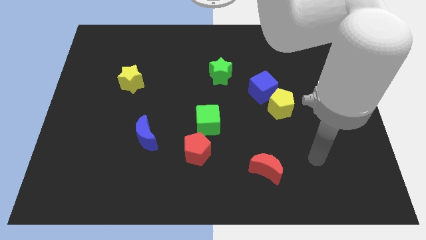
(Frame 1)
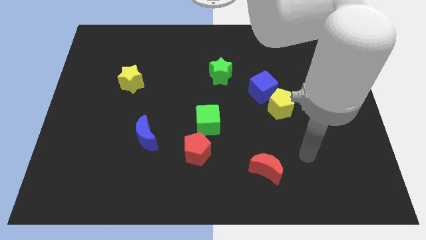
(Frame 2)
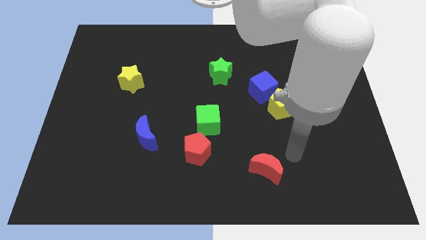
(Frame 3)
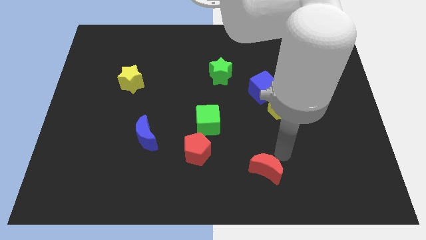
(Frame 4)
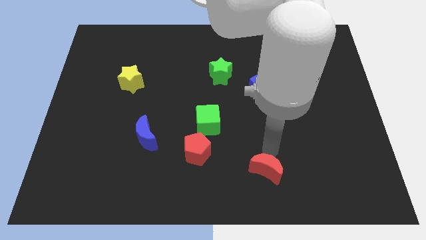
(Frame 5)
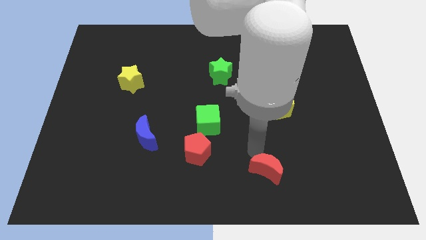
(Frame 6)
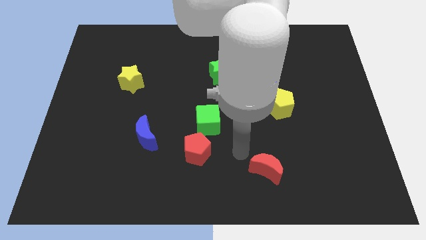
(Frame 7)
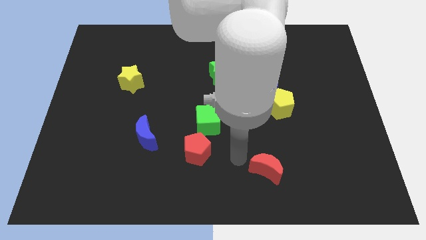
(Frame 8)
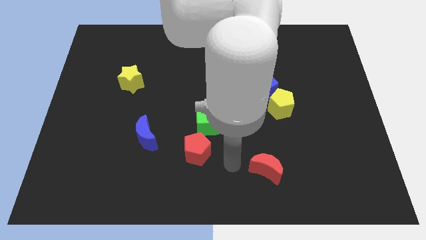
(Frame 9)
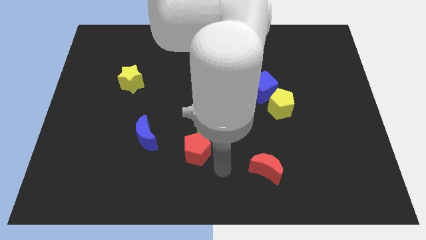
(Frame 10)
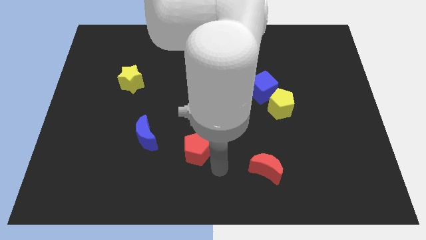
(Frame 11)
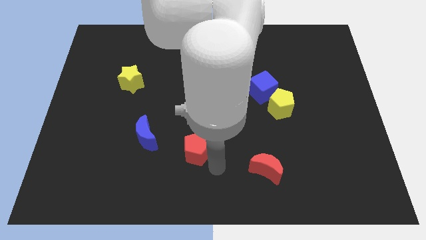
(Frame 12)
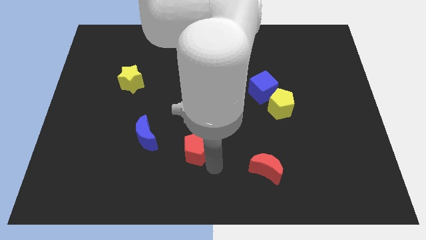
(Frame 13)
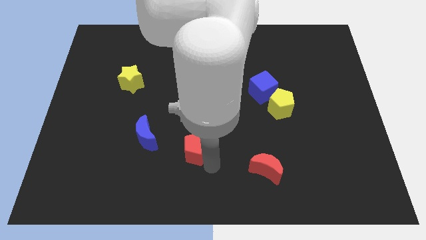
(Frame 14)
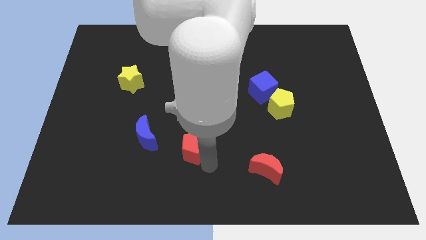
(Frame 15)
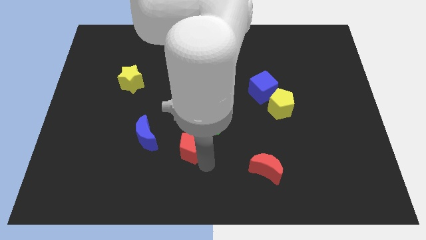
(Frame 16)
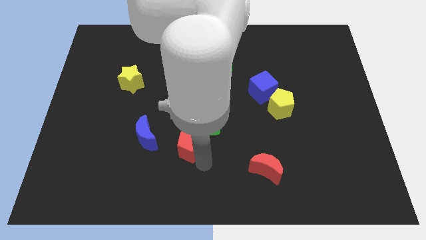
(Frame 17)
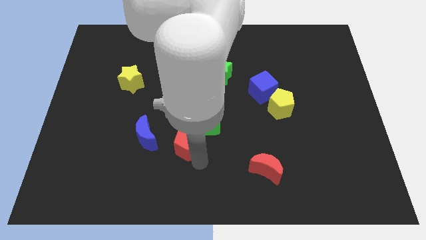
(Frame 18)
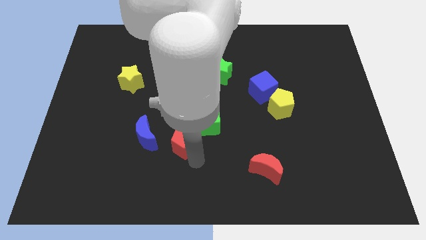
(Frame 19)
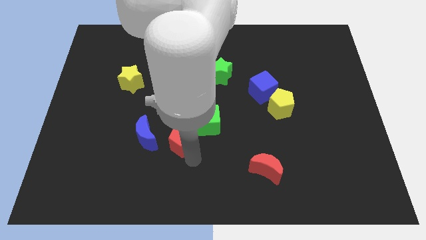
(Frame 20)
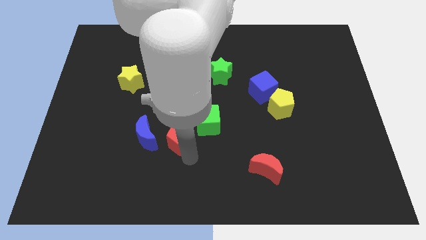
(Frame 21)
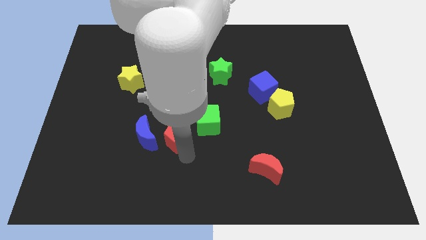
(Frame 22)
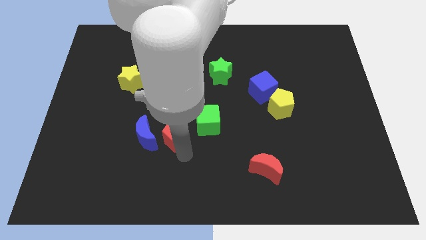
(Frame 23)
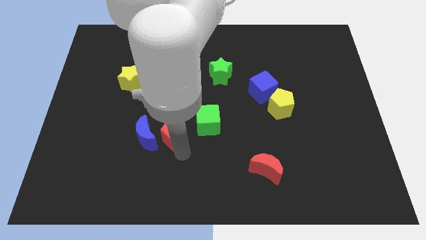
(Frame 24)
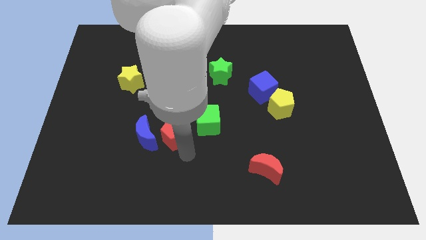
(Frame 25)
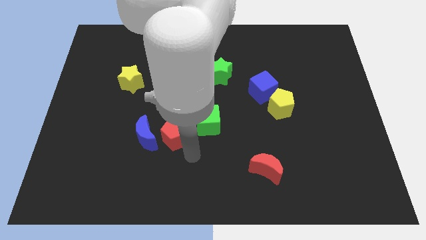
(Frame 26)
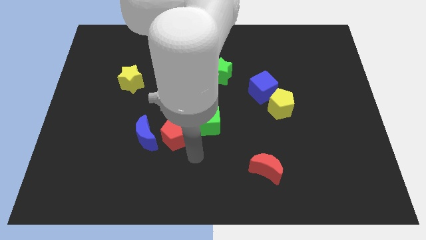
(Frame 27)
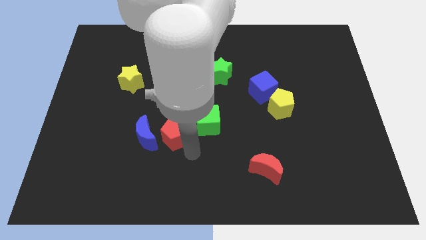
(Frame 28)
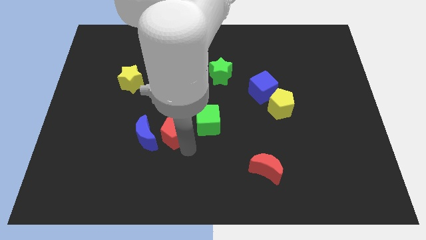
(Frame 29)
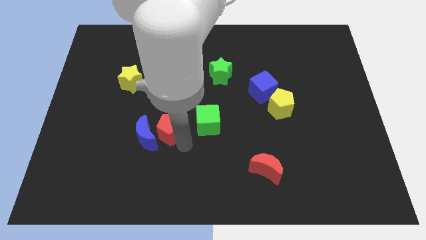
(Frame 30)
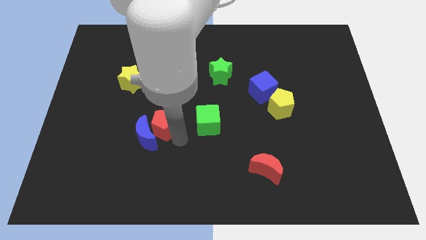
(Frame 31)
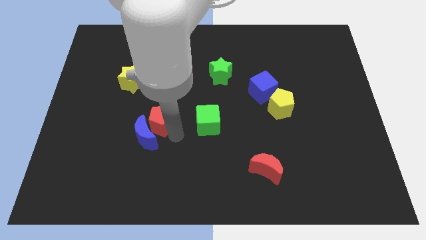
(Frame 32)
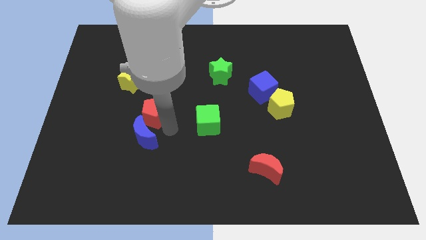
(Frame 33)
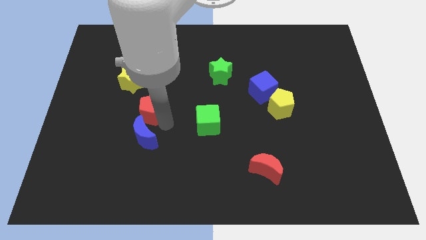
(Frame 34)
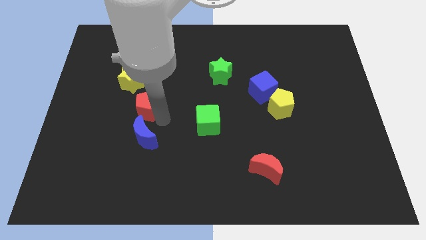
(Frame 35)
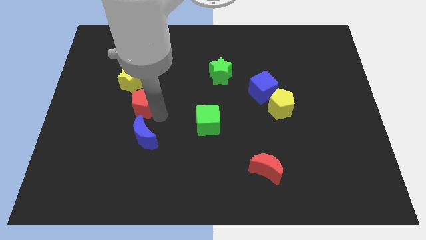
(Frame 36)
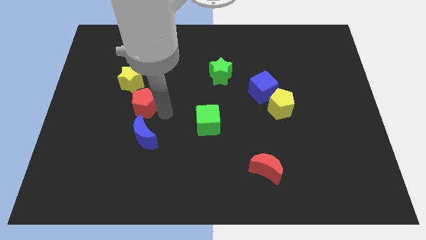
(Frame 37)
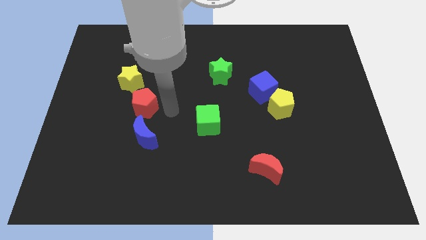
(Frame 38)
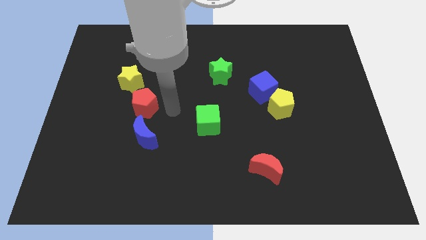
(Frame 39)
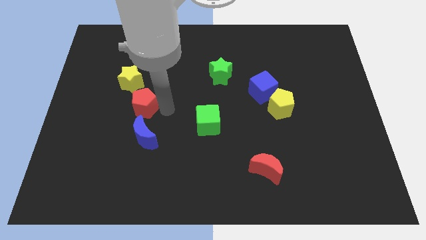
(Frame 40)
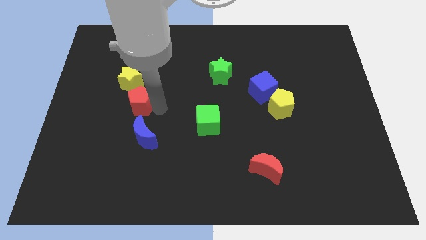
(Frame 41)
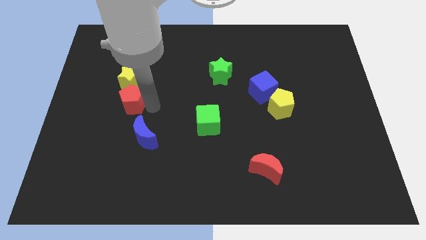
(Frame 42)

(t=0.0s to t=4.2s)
push the red pentagon up and to the left diagonally

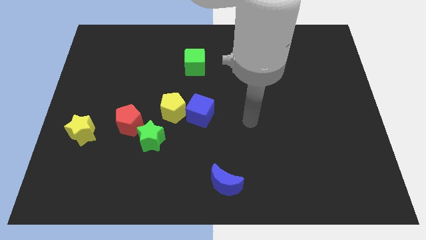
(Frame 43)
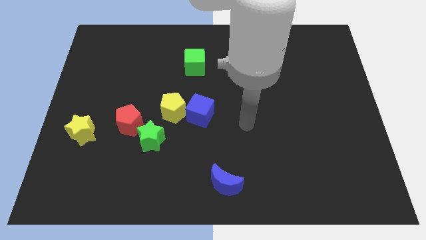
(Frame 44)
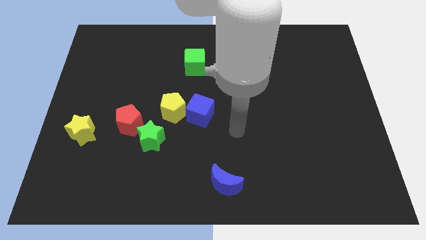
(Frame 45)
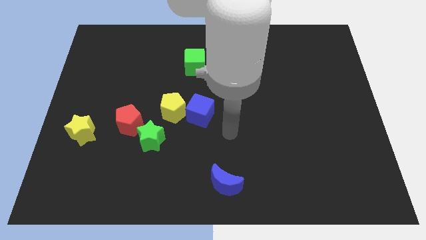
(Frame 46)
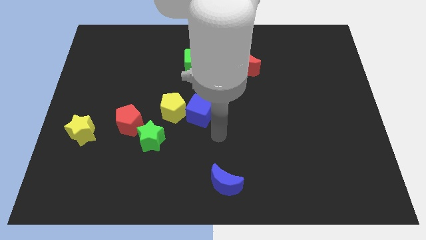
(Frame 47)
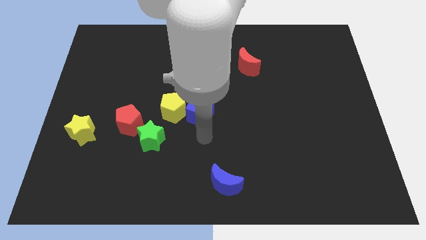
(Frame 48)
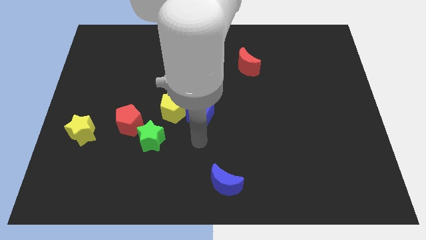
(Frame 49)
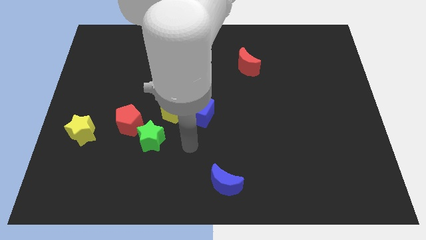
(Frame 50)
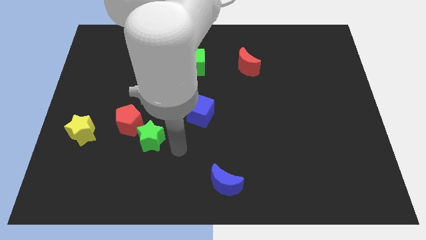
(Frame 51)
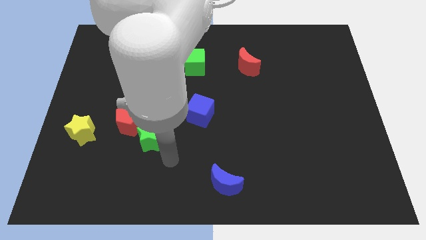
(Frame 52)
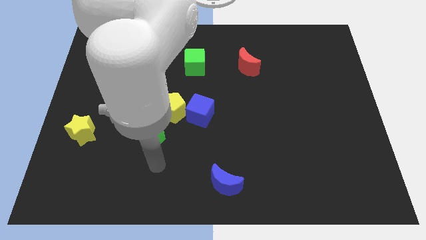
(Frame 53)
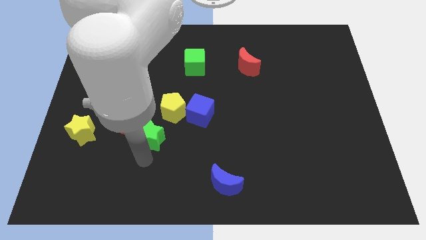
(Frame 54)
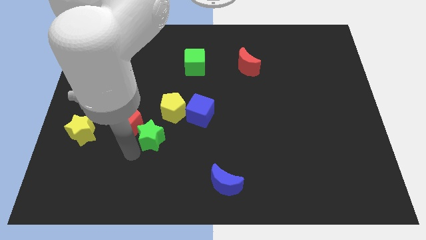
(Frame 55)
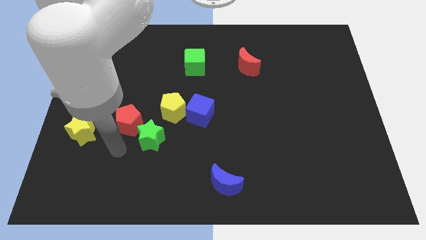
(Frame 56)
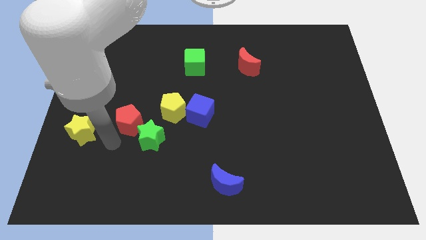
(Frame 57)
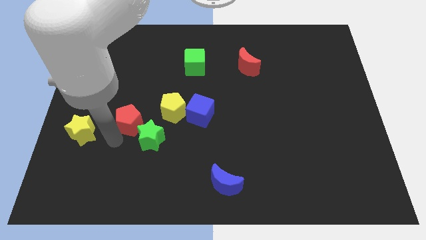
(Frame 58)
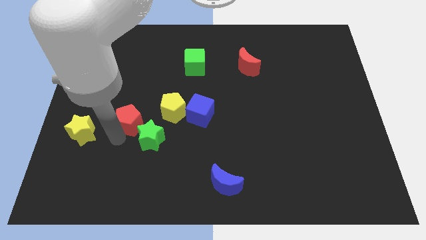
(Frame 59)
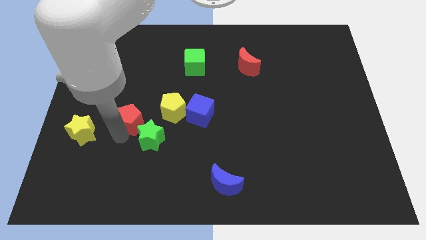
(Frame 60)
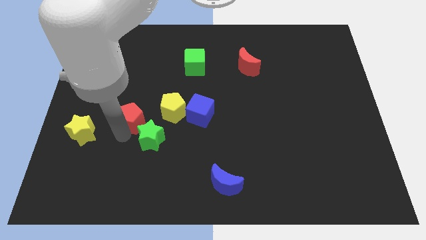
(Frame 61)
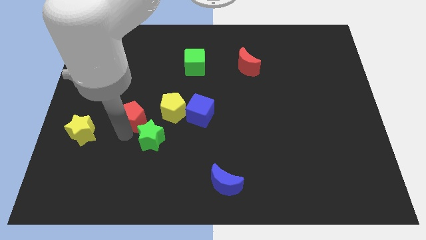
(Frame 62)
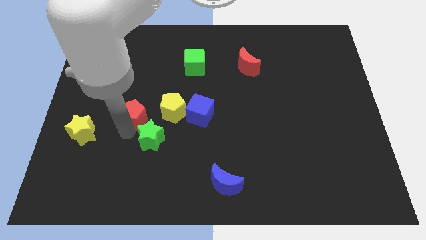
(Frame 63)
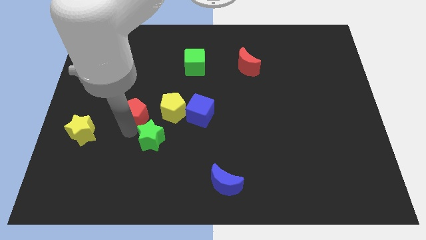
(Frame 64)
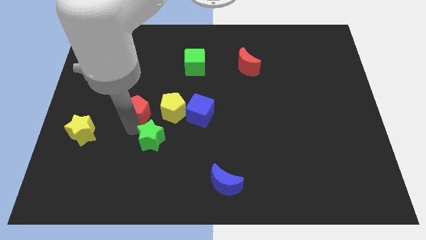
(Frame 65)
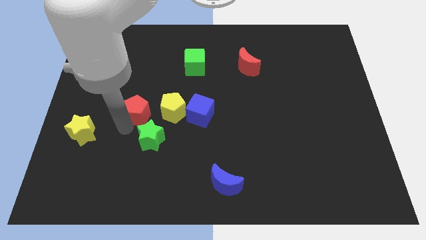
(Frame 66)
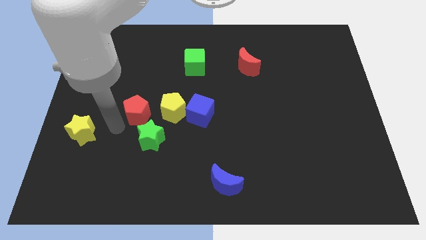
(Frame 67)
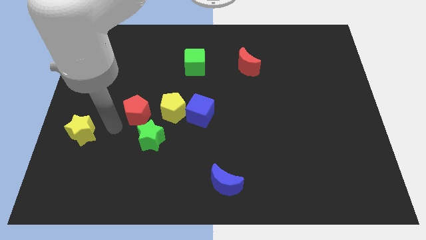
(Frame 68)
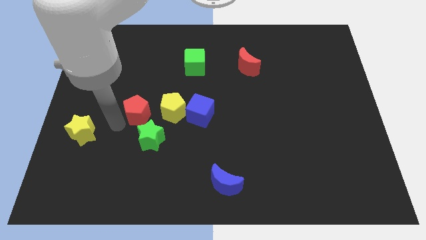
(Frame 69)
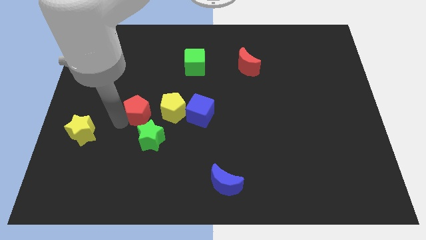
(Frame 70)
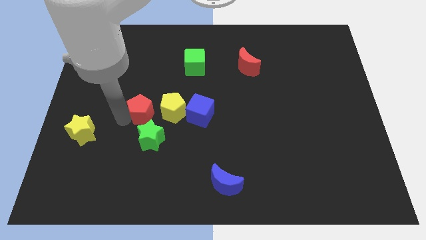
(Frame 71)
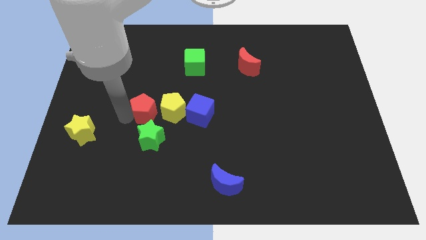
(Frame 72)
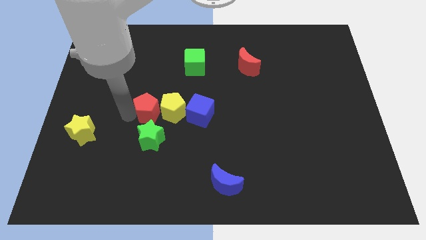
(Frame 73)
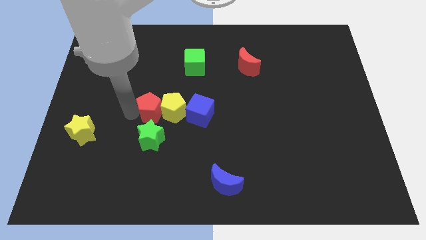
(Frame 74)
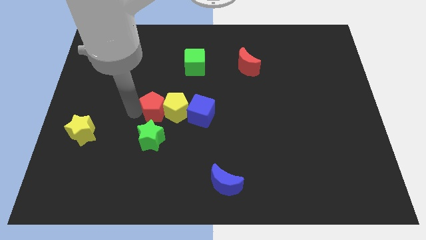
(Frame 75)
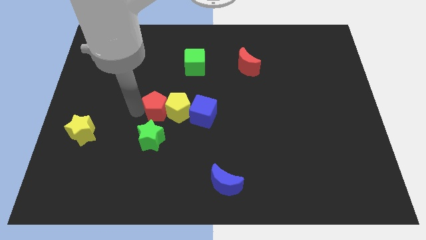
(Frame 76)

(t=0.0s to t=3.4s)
move the red pentagon upwards and to the right diagonally a bit

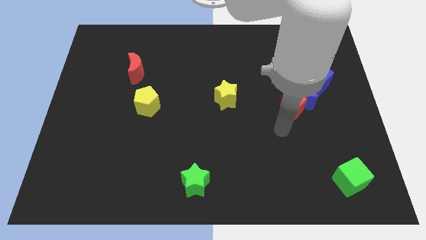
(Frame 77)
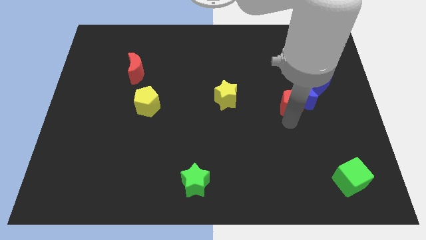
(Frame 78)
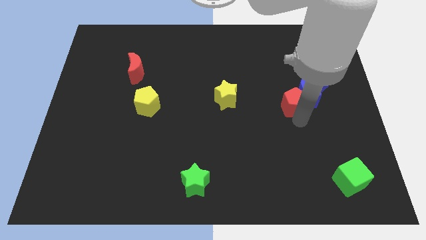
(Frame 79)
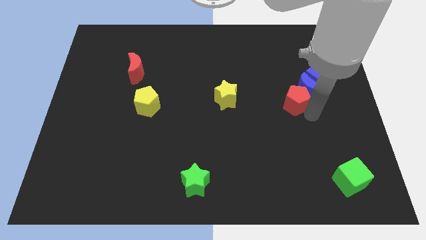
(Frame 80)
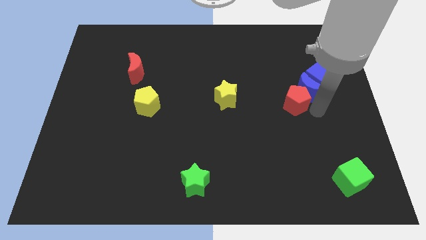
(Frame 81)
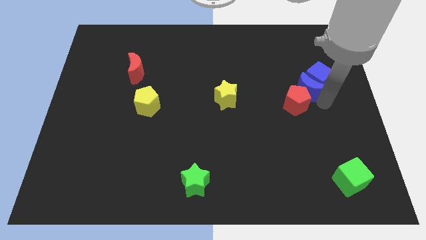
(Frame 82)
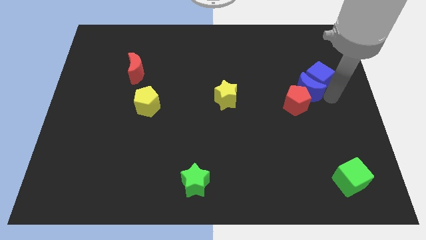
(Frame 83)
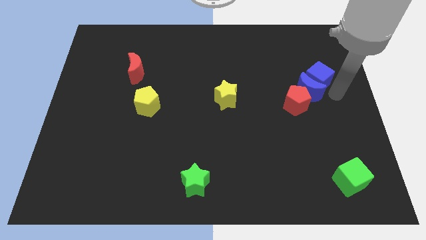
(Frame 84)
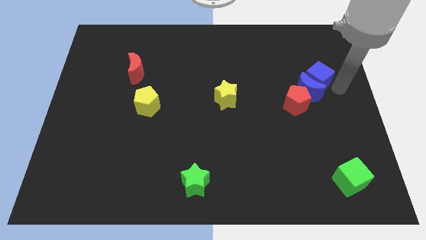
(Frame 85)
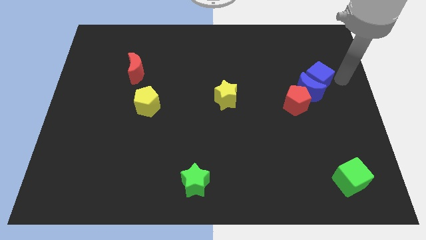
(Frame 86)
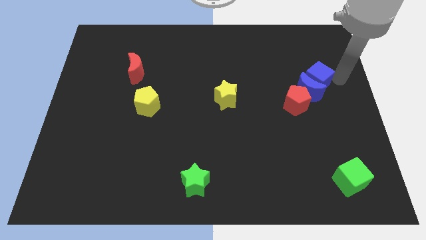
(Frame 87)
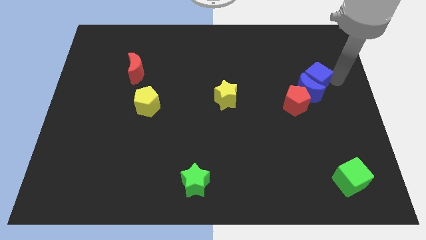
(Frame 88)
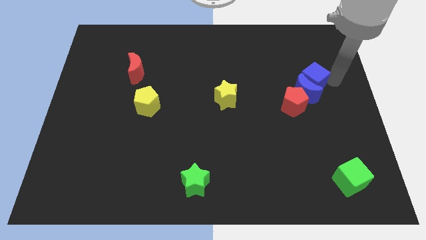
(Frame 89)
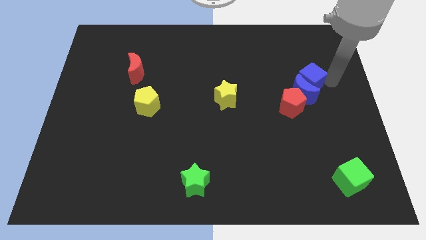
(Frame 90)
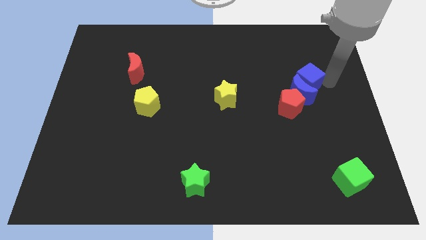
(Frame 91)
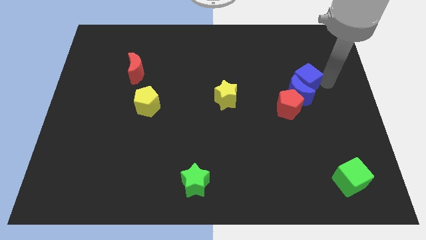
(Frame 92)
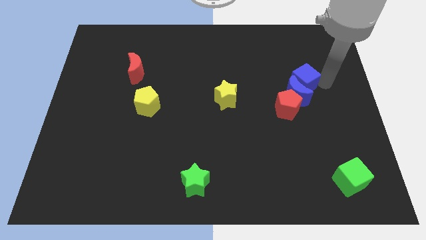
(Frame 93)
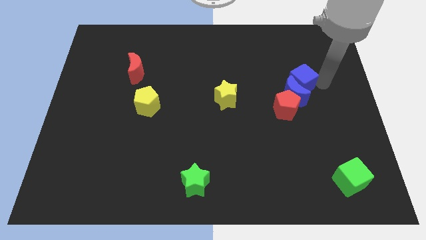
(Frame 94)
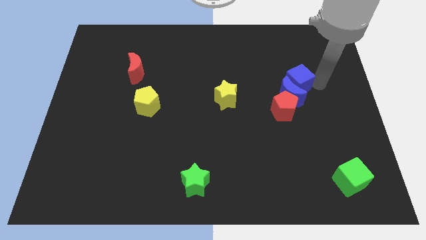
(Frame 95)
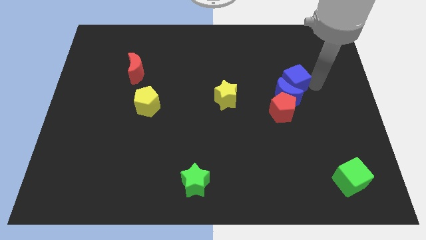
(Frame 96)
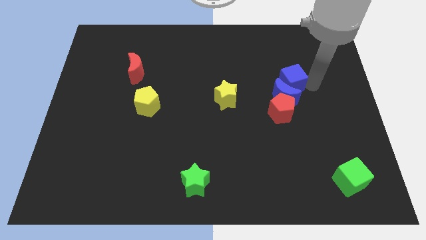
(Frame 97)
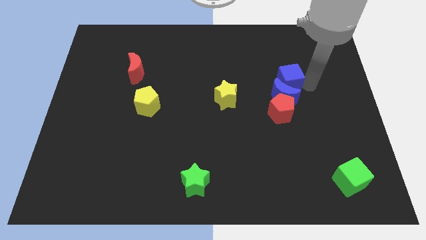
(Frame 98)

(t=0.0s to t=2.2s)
slightly slide the blue cube to the left
